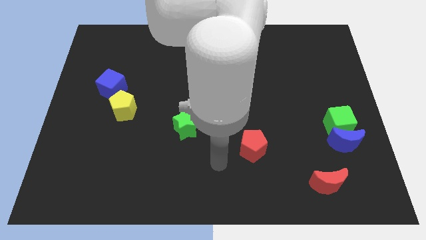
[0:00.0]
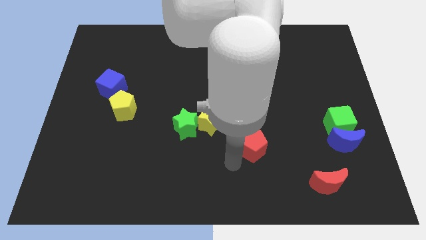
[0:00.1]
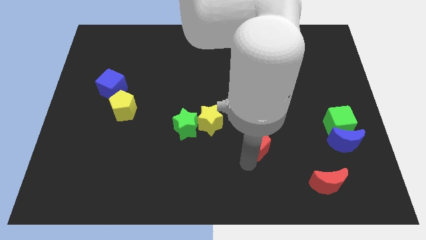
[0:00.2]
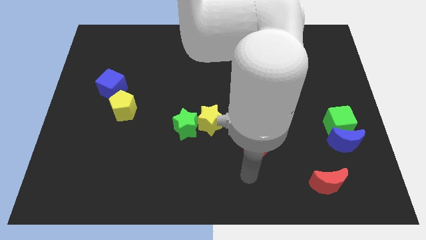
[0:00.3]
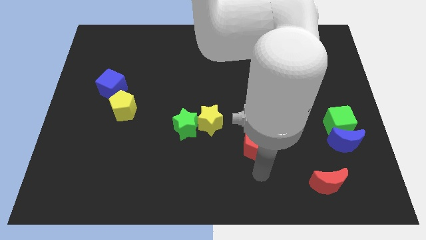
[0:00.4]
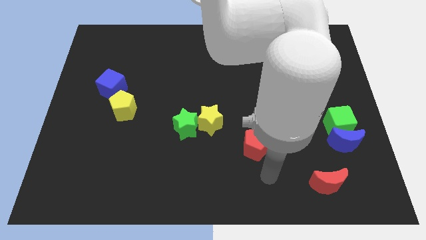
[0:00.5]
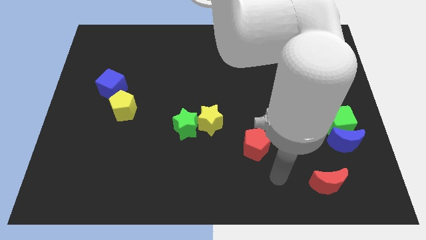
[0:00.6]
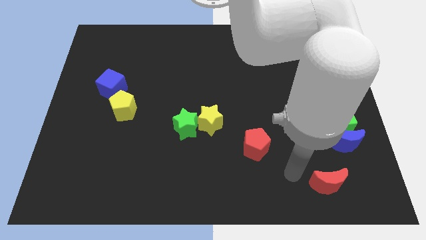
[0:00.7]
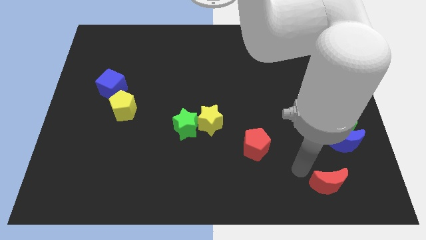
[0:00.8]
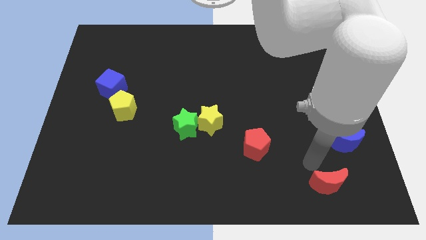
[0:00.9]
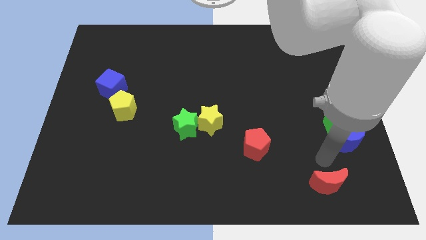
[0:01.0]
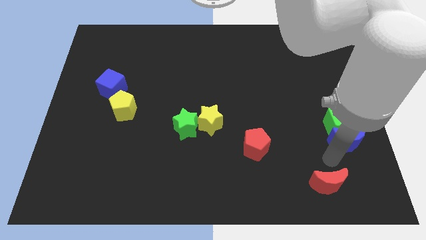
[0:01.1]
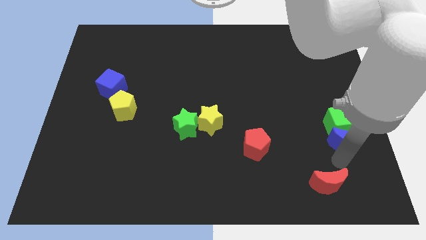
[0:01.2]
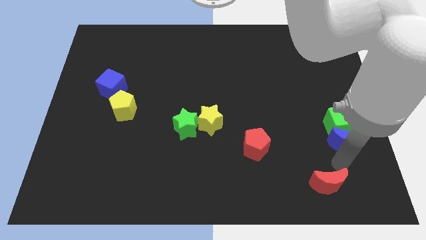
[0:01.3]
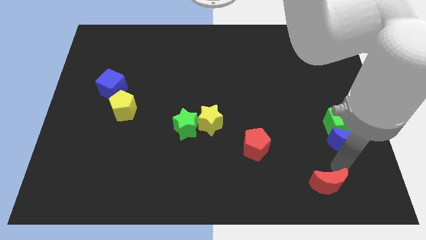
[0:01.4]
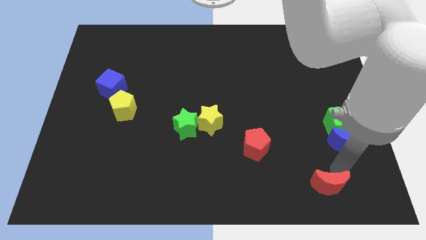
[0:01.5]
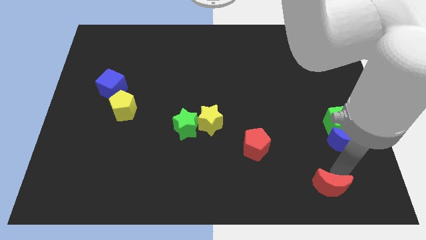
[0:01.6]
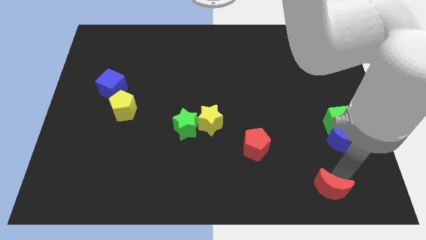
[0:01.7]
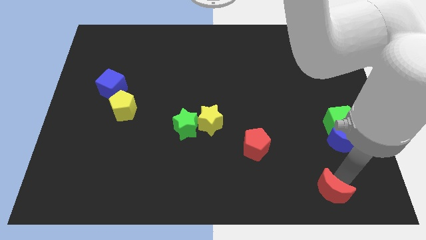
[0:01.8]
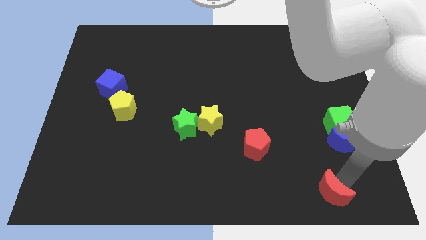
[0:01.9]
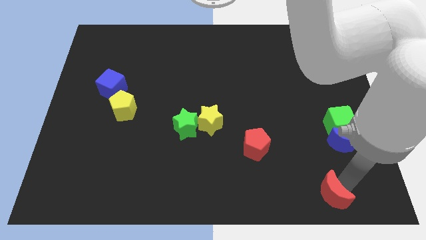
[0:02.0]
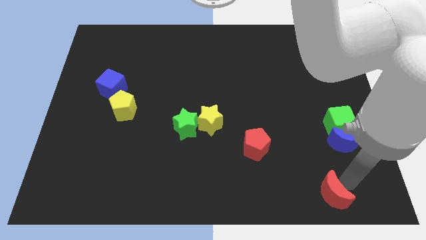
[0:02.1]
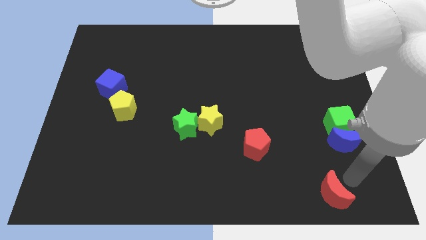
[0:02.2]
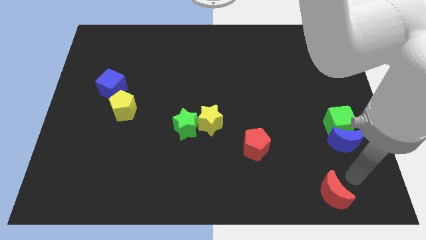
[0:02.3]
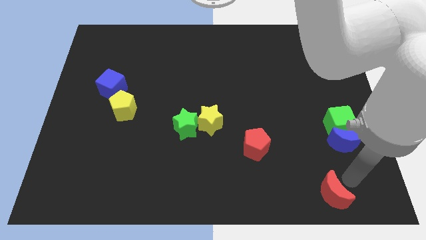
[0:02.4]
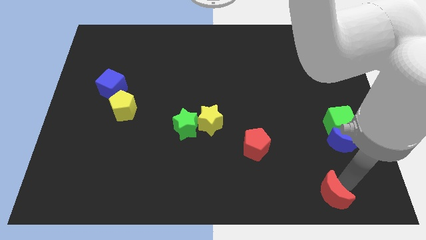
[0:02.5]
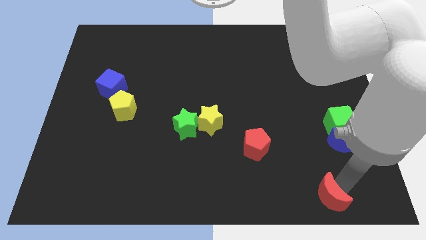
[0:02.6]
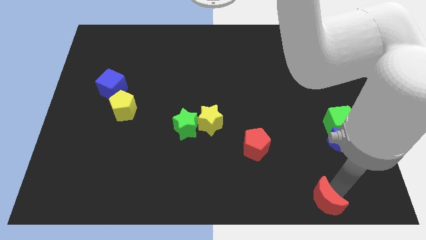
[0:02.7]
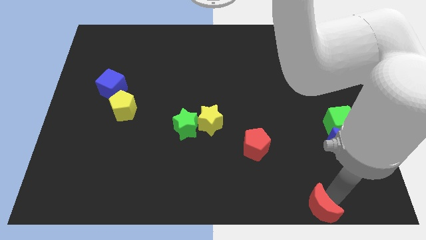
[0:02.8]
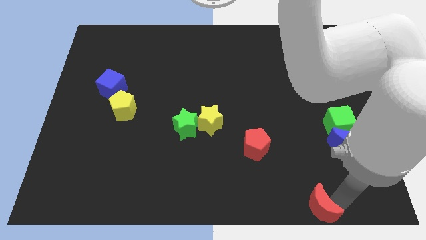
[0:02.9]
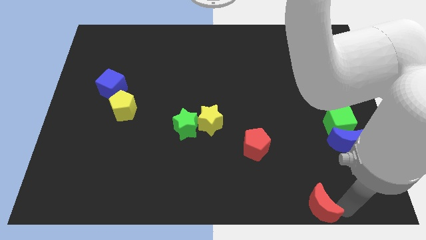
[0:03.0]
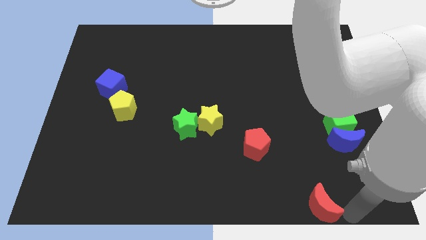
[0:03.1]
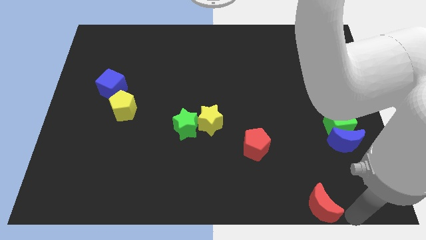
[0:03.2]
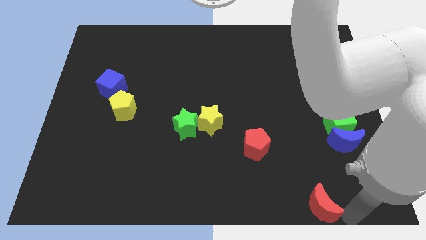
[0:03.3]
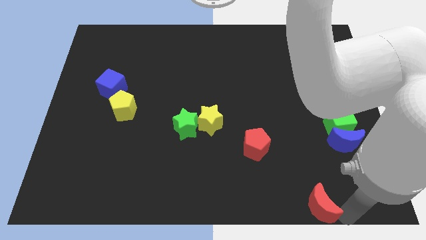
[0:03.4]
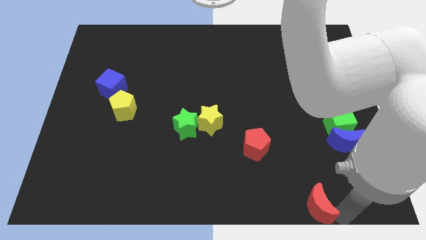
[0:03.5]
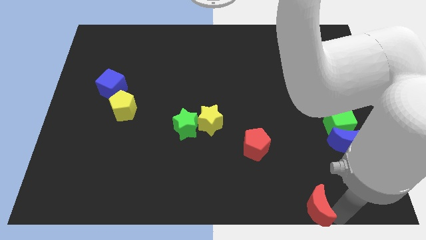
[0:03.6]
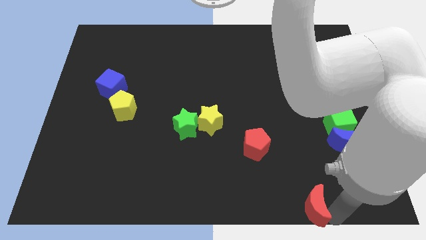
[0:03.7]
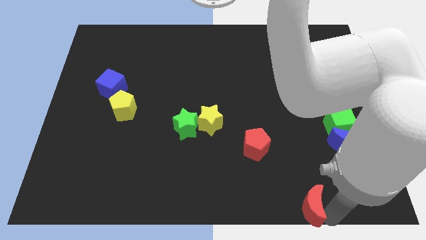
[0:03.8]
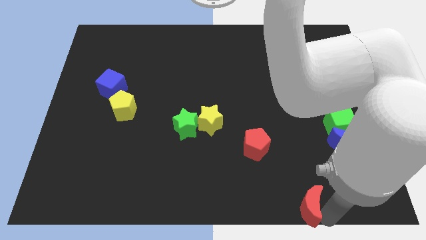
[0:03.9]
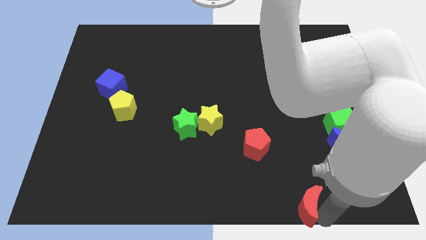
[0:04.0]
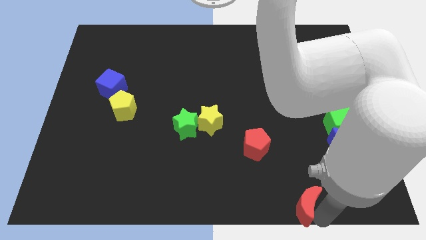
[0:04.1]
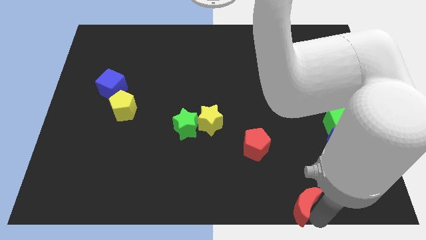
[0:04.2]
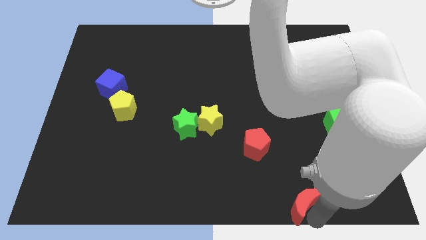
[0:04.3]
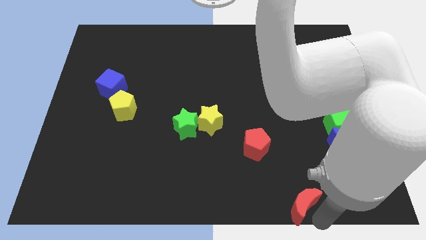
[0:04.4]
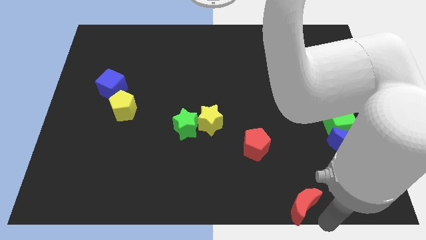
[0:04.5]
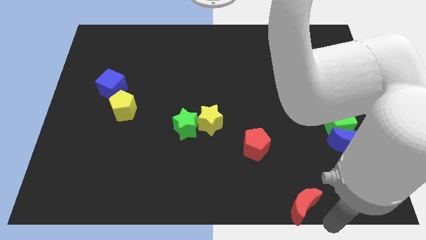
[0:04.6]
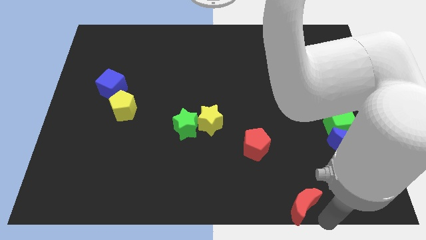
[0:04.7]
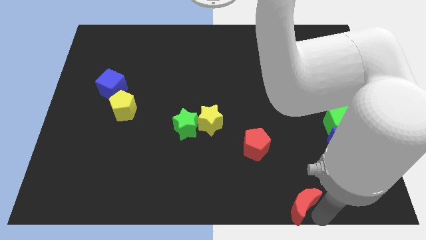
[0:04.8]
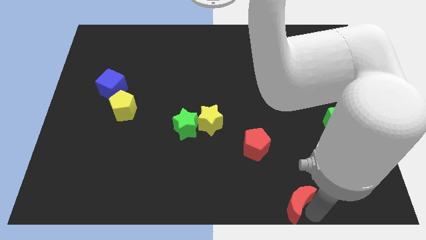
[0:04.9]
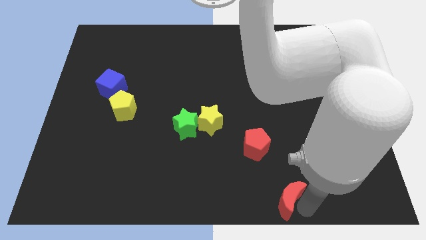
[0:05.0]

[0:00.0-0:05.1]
slightly slide the red moon to the left

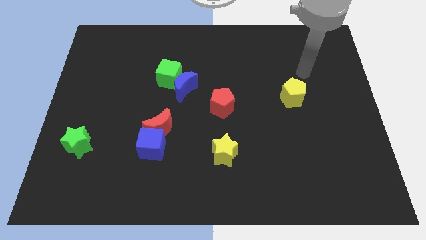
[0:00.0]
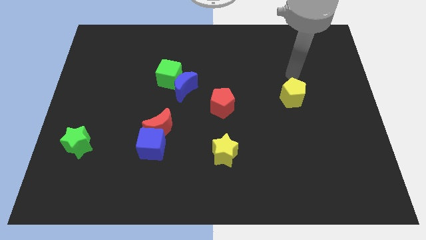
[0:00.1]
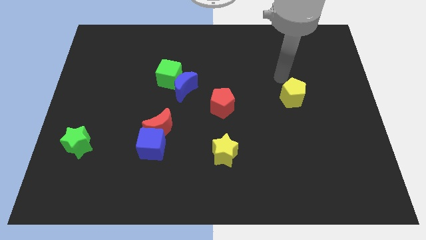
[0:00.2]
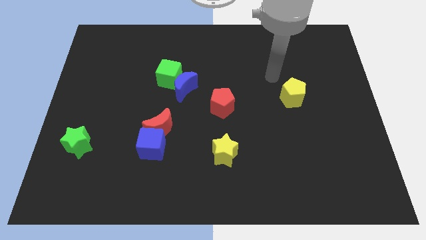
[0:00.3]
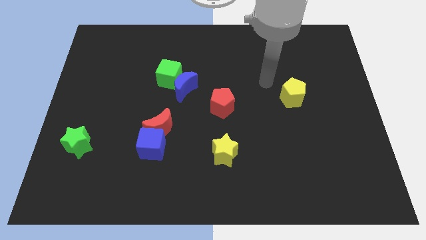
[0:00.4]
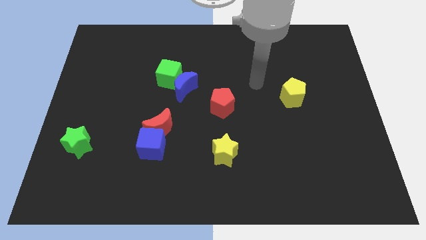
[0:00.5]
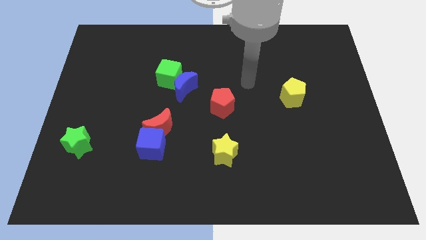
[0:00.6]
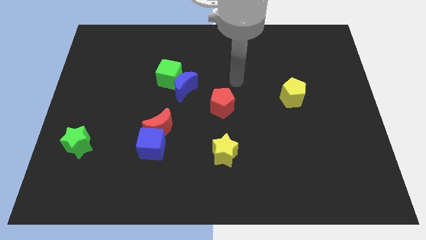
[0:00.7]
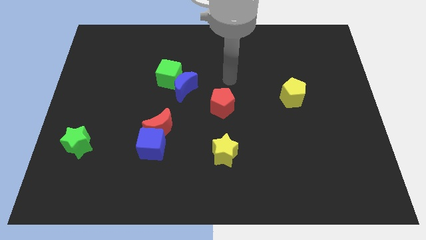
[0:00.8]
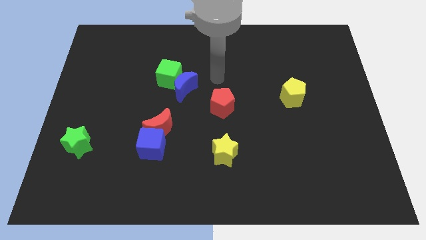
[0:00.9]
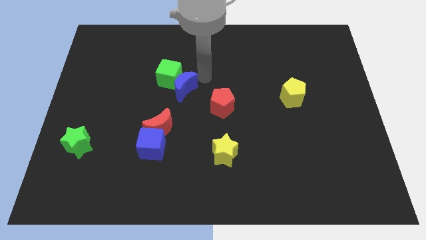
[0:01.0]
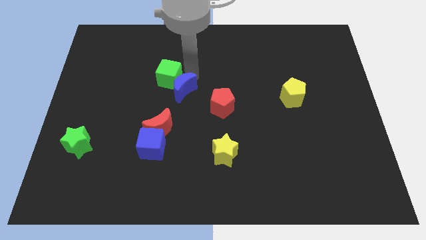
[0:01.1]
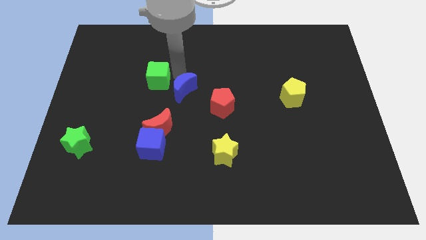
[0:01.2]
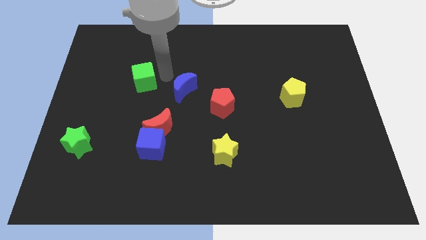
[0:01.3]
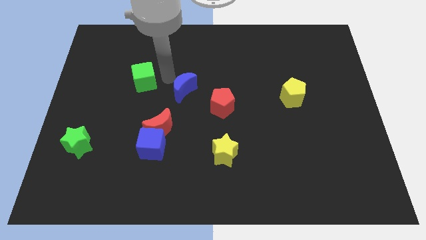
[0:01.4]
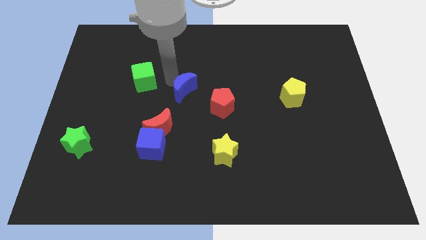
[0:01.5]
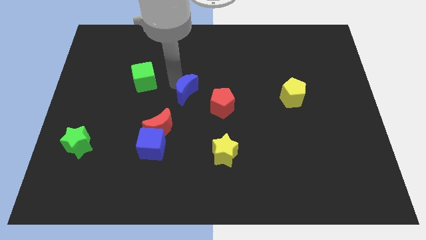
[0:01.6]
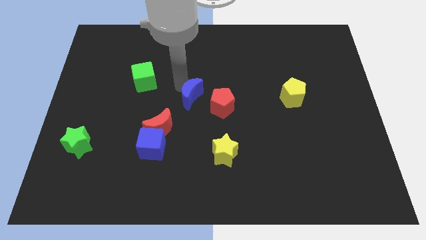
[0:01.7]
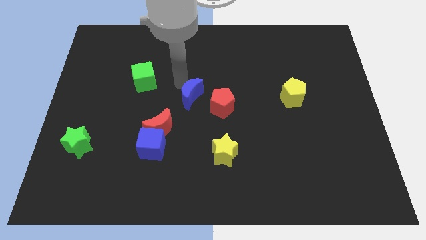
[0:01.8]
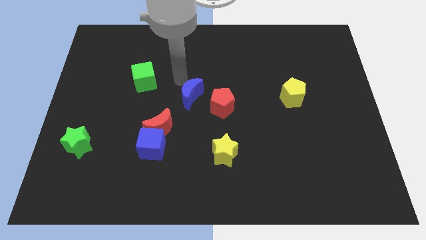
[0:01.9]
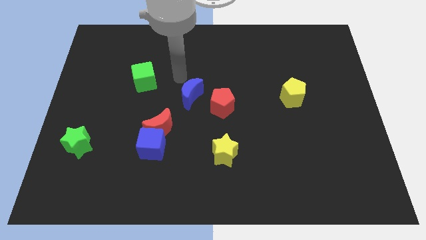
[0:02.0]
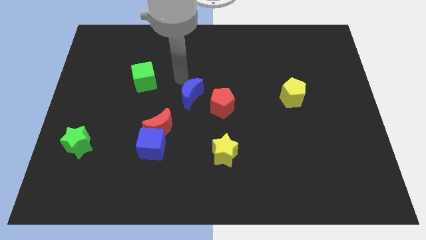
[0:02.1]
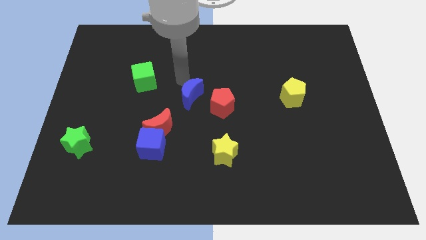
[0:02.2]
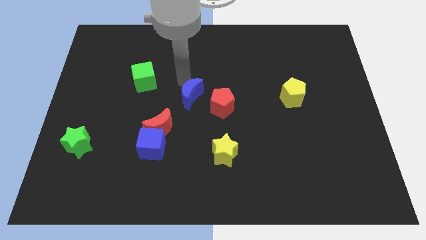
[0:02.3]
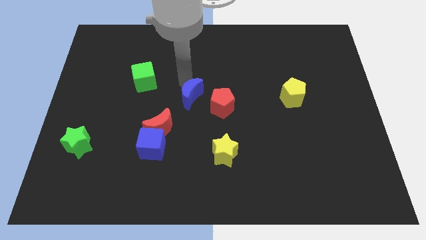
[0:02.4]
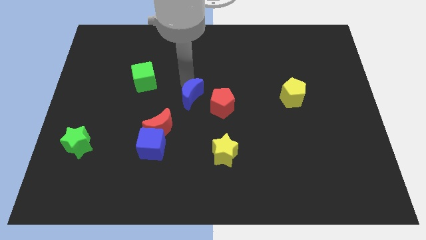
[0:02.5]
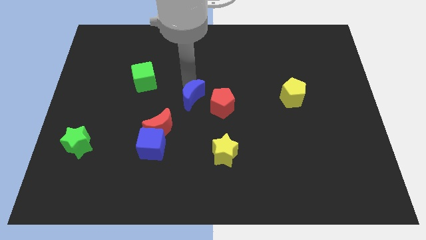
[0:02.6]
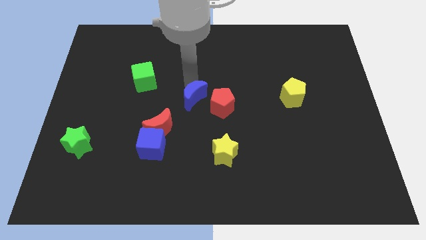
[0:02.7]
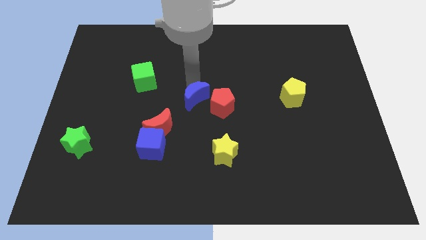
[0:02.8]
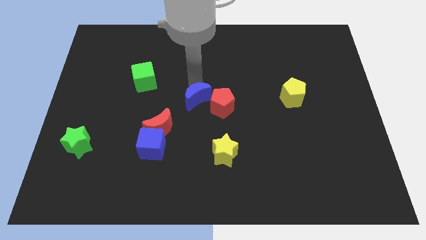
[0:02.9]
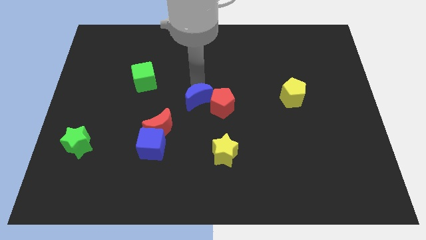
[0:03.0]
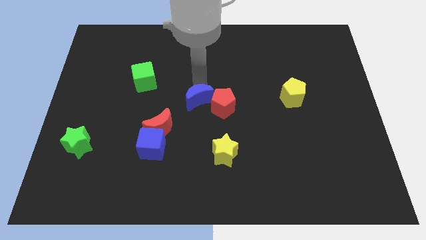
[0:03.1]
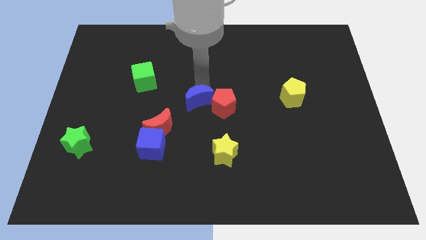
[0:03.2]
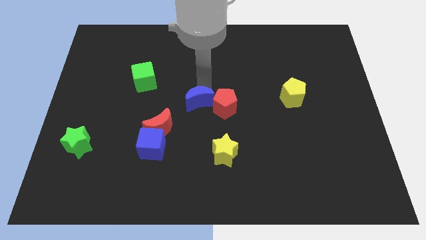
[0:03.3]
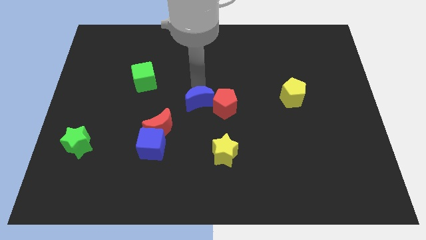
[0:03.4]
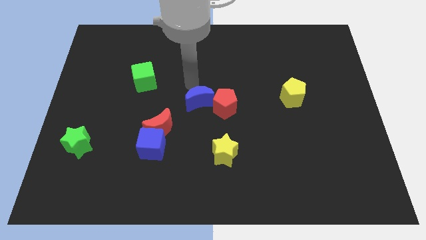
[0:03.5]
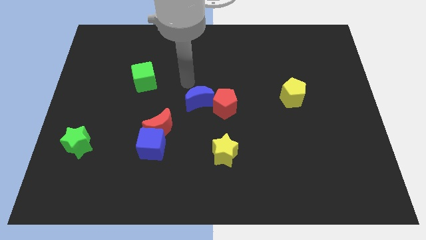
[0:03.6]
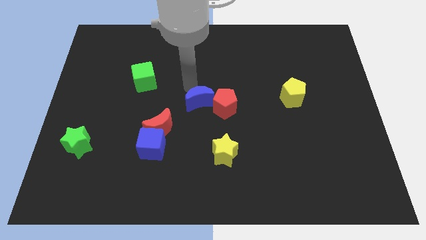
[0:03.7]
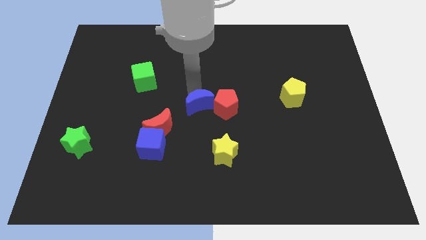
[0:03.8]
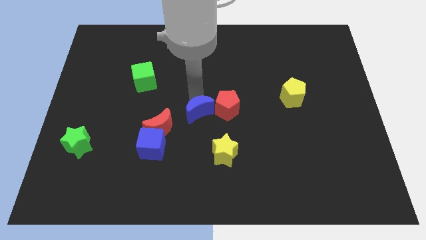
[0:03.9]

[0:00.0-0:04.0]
slide the blue moon down and then to the right slightly
